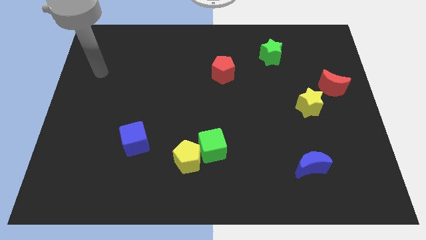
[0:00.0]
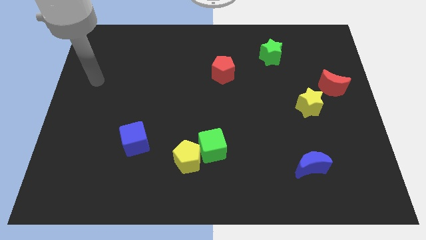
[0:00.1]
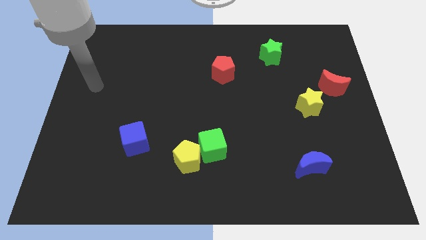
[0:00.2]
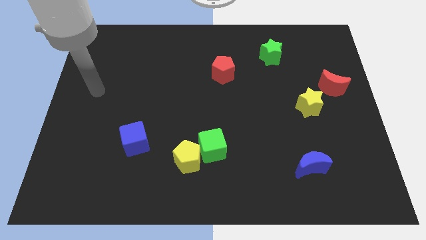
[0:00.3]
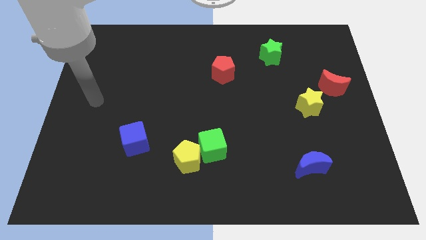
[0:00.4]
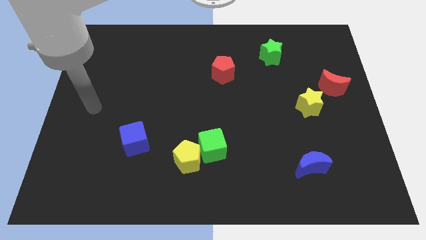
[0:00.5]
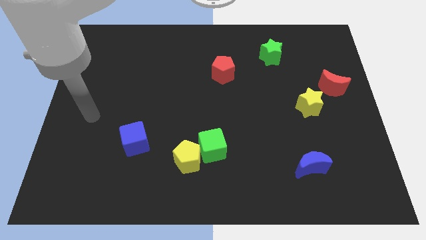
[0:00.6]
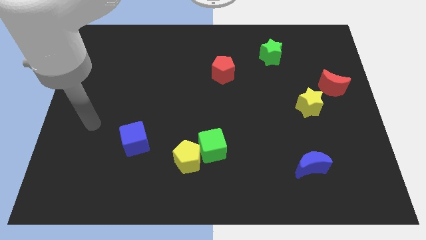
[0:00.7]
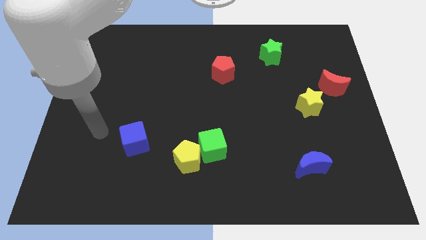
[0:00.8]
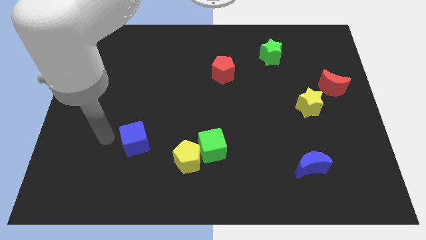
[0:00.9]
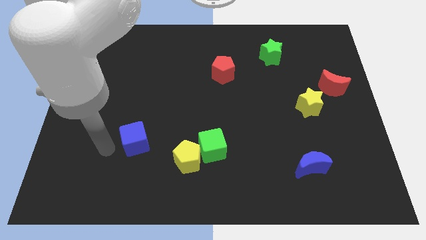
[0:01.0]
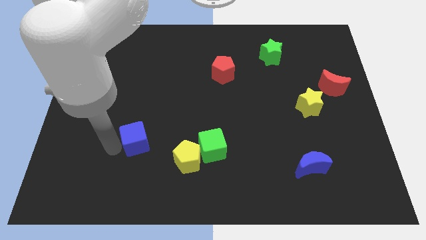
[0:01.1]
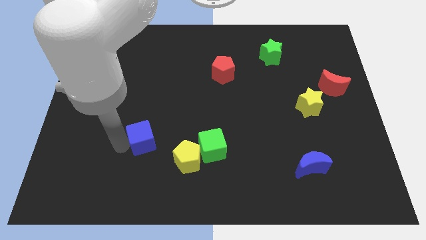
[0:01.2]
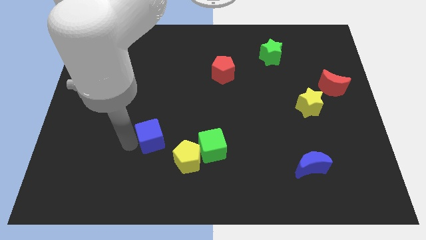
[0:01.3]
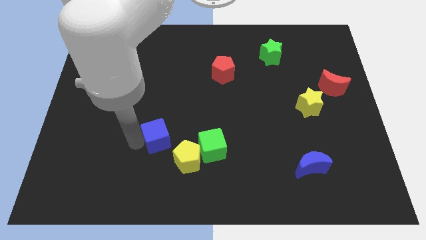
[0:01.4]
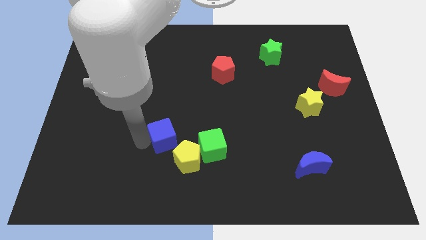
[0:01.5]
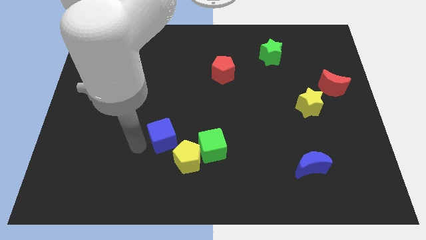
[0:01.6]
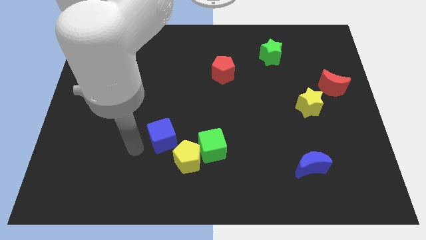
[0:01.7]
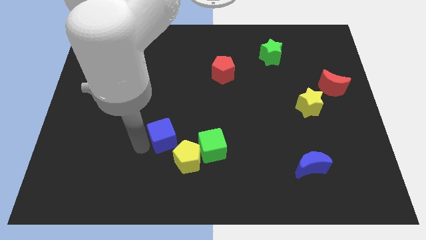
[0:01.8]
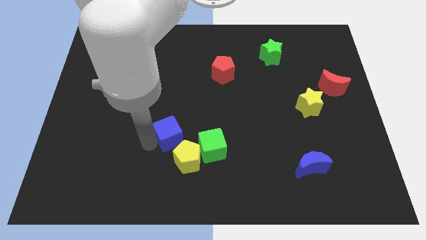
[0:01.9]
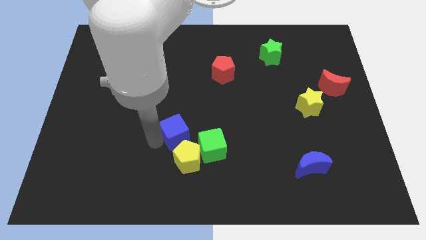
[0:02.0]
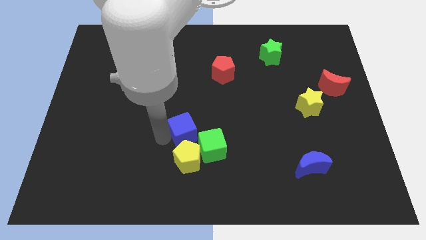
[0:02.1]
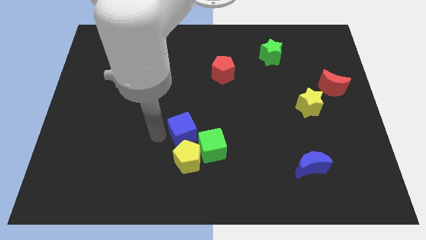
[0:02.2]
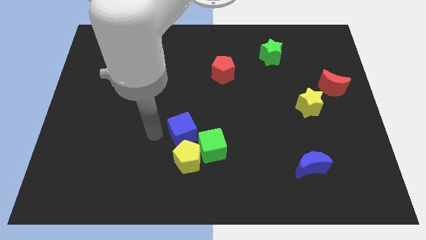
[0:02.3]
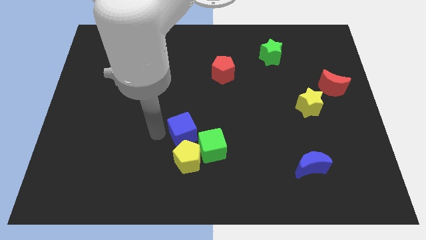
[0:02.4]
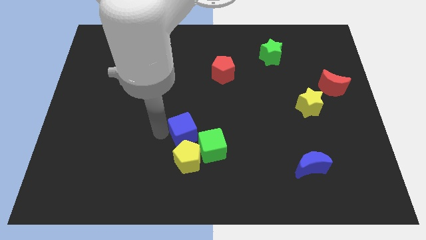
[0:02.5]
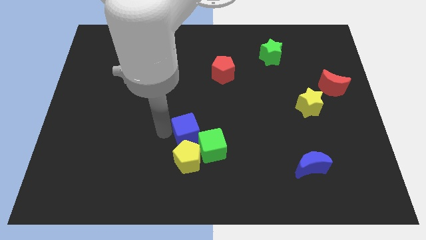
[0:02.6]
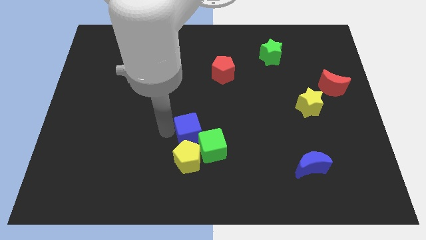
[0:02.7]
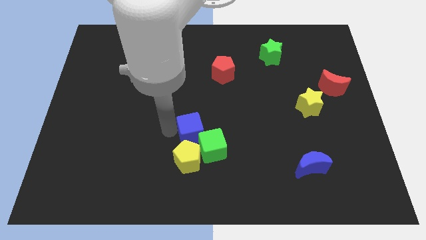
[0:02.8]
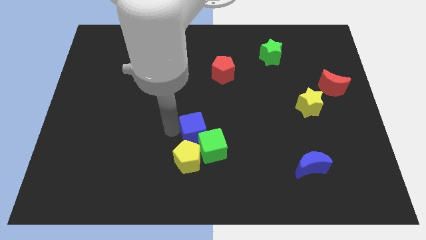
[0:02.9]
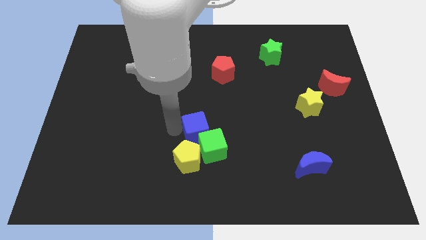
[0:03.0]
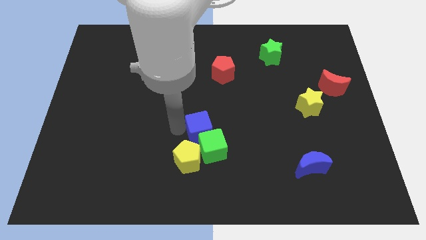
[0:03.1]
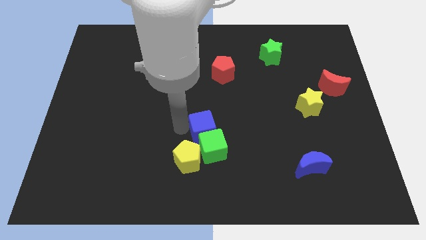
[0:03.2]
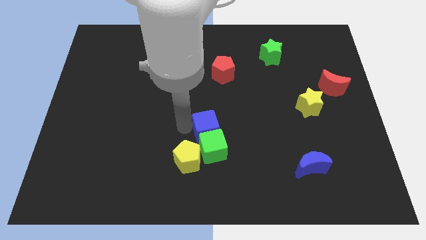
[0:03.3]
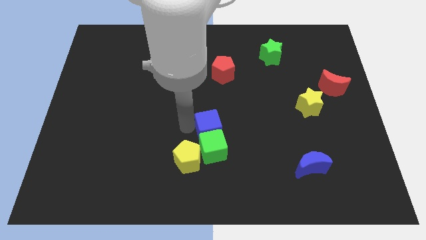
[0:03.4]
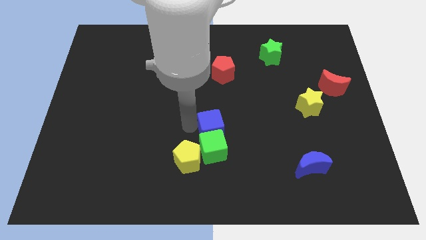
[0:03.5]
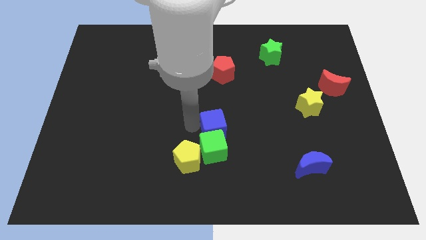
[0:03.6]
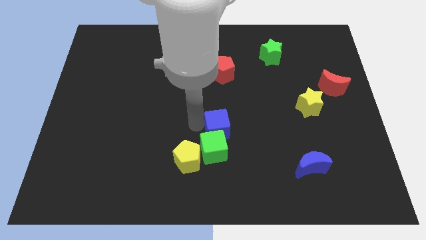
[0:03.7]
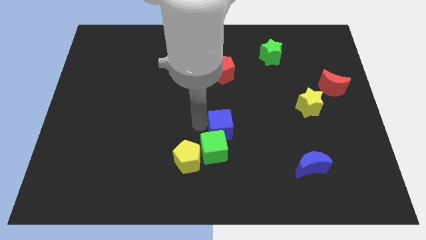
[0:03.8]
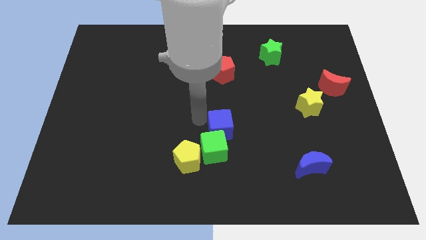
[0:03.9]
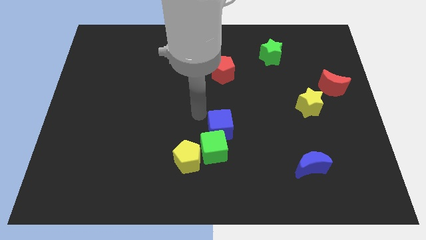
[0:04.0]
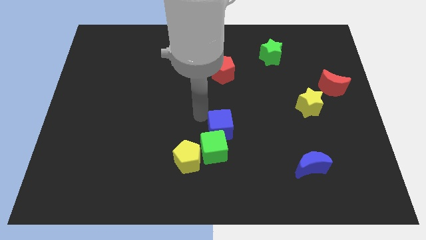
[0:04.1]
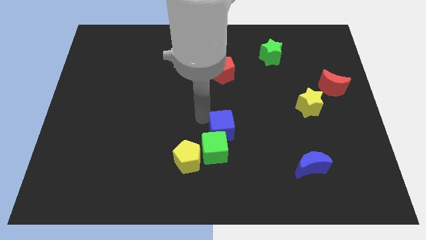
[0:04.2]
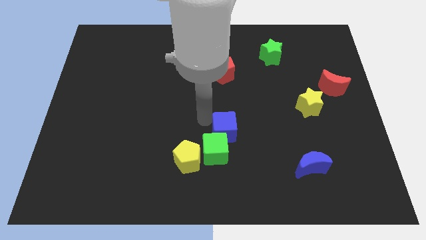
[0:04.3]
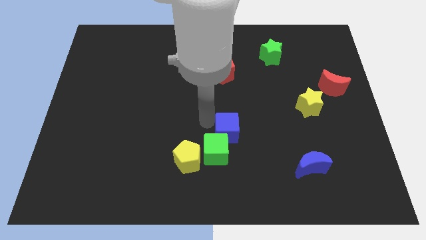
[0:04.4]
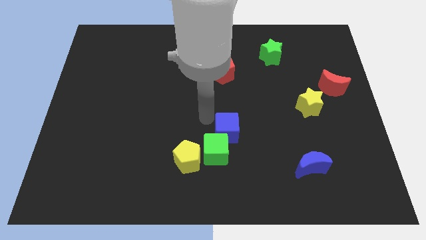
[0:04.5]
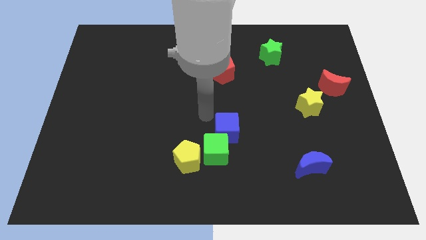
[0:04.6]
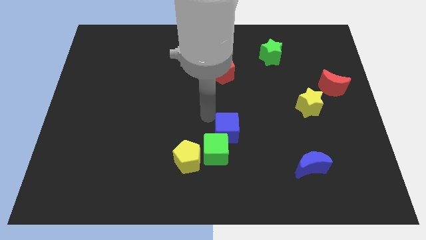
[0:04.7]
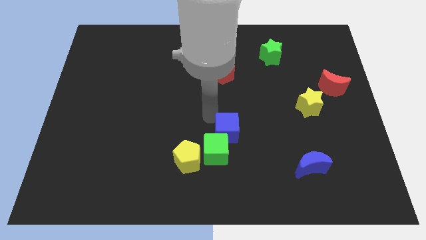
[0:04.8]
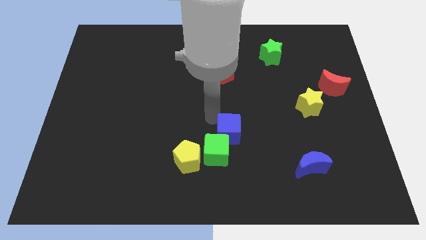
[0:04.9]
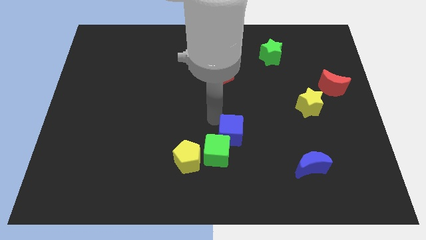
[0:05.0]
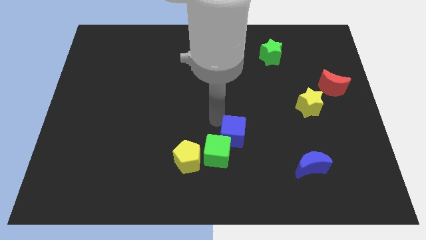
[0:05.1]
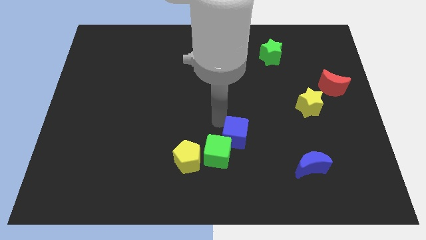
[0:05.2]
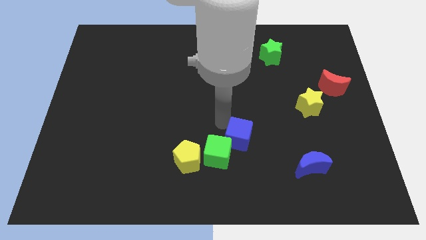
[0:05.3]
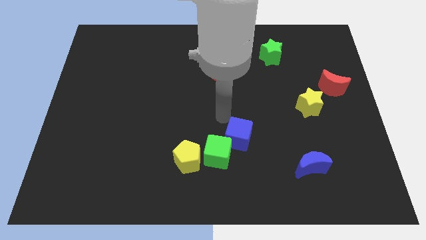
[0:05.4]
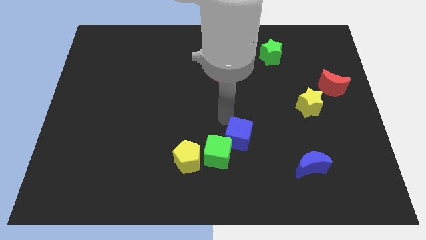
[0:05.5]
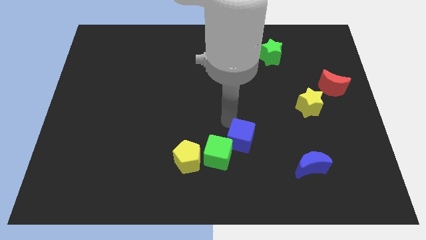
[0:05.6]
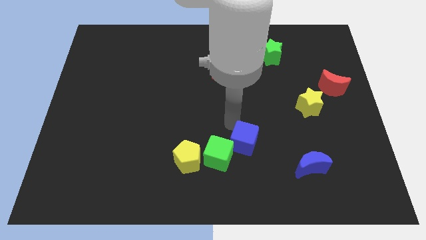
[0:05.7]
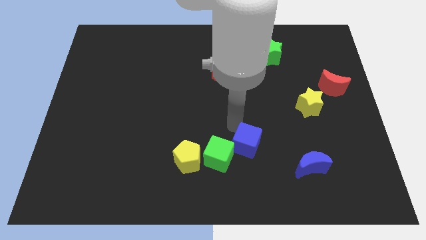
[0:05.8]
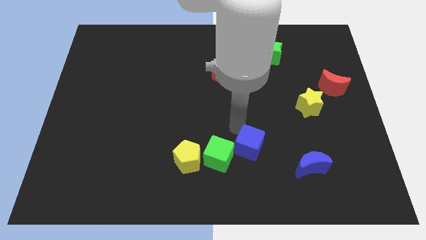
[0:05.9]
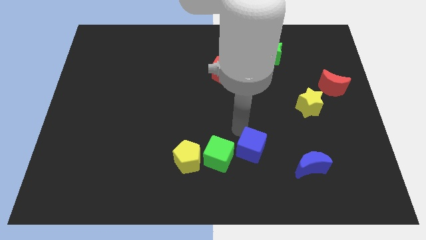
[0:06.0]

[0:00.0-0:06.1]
put the blue cube just left of the blue moon

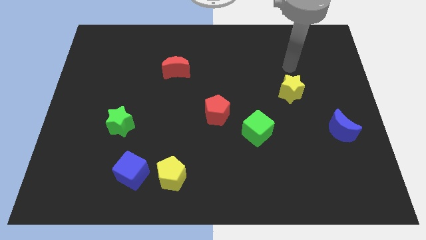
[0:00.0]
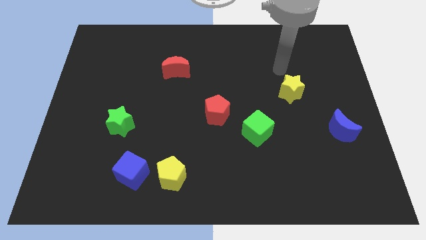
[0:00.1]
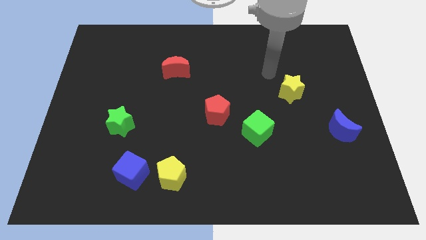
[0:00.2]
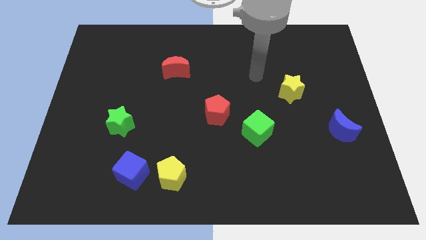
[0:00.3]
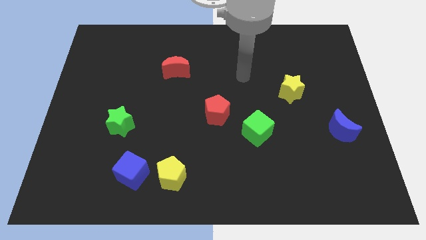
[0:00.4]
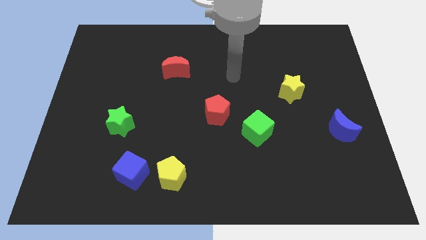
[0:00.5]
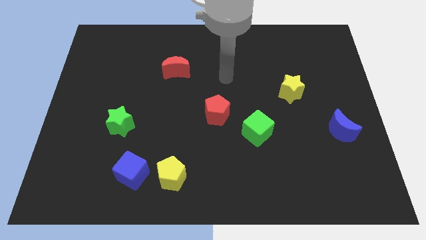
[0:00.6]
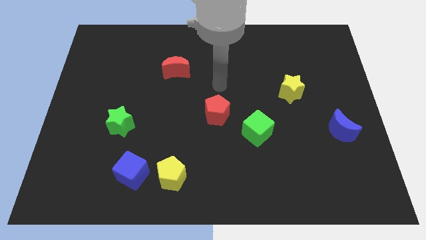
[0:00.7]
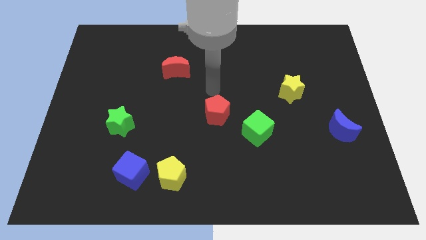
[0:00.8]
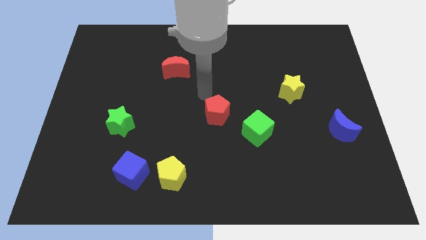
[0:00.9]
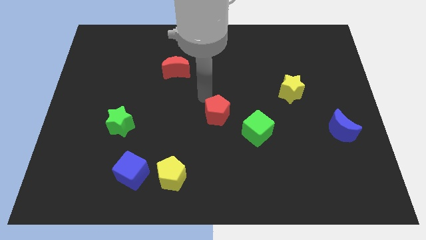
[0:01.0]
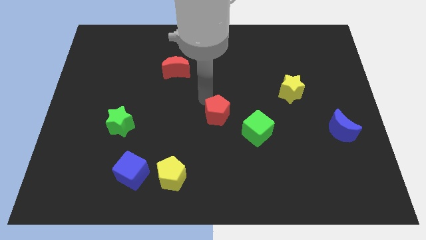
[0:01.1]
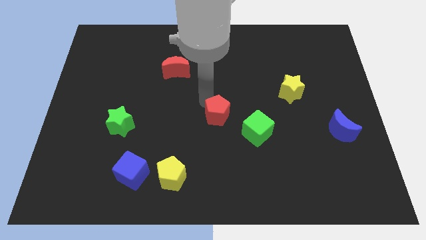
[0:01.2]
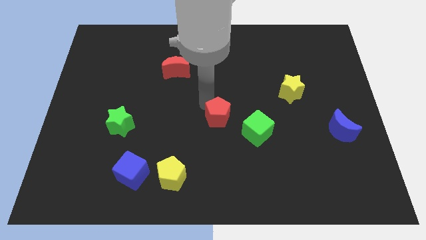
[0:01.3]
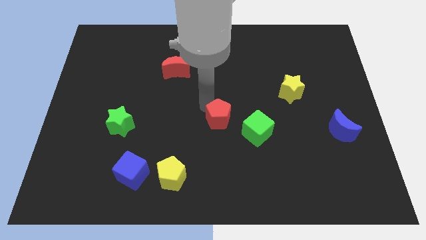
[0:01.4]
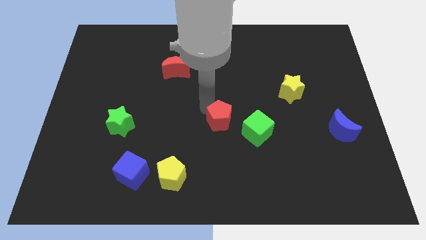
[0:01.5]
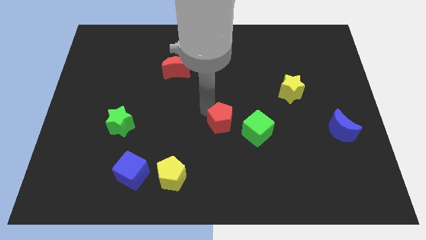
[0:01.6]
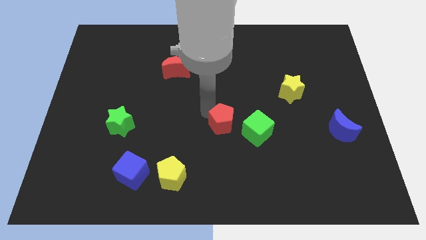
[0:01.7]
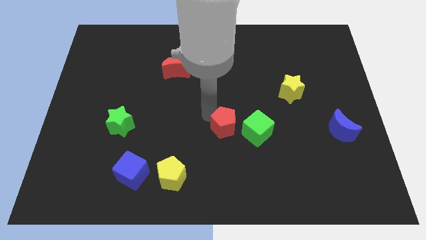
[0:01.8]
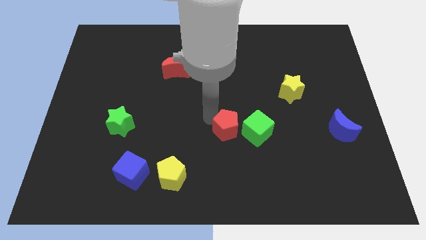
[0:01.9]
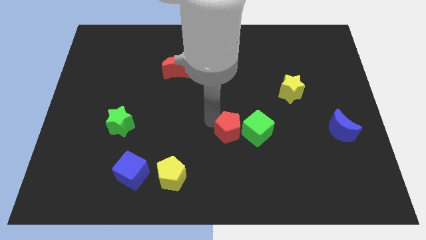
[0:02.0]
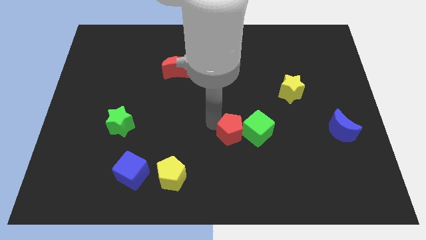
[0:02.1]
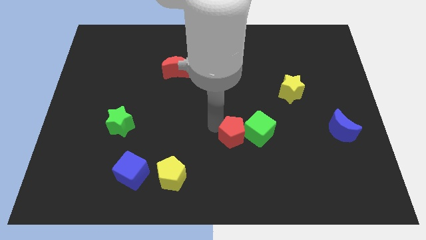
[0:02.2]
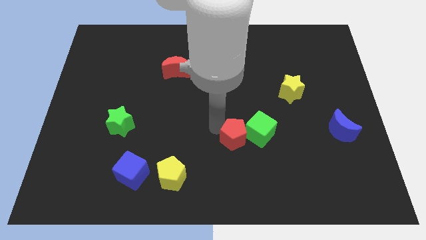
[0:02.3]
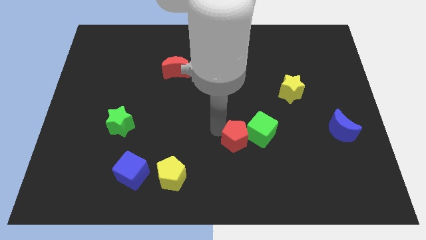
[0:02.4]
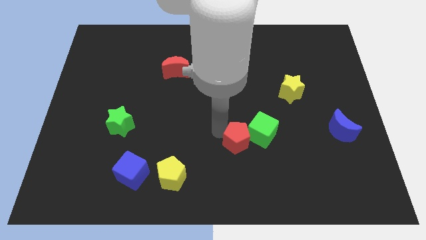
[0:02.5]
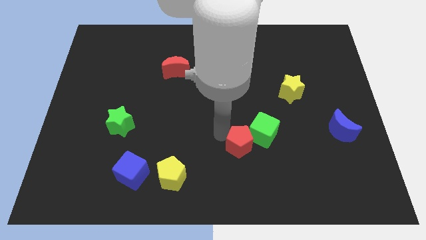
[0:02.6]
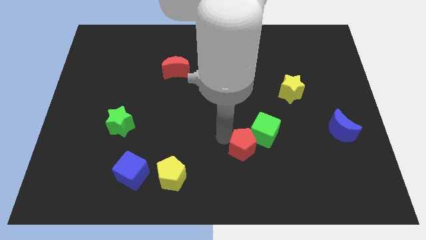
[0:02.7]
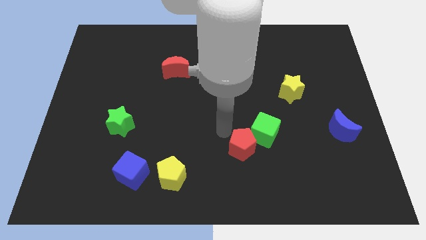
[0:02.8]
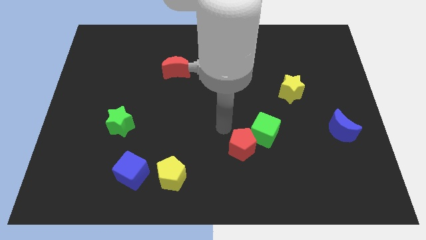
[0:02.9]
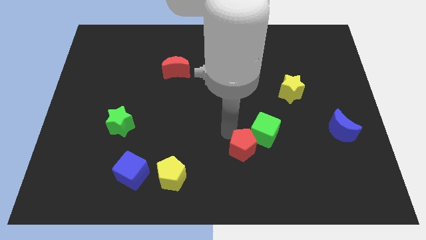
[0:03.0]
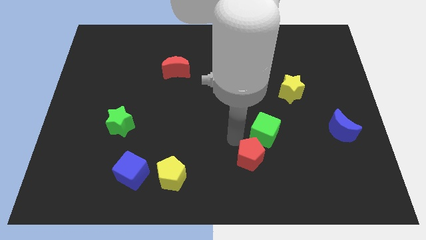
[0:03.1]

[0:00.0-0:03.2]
move the red pentagon to the bottom of the green cube
